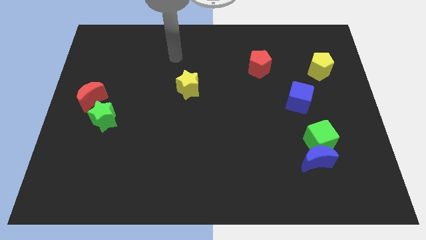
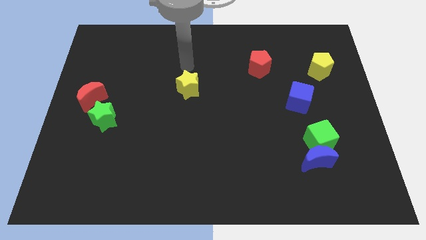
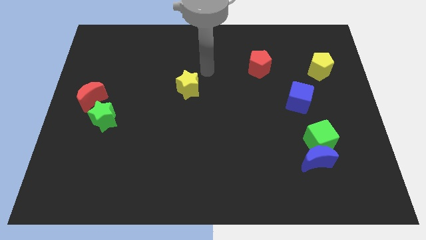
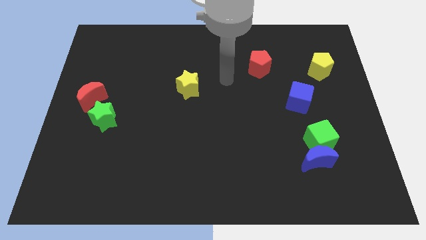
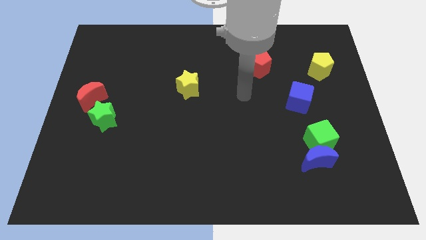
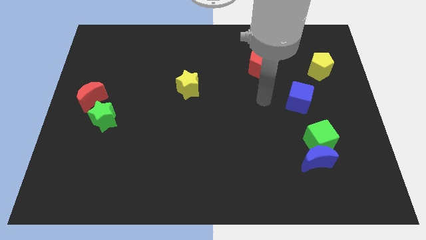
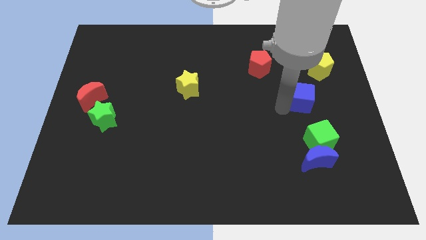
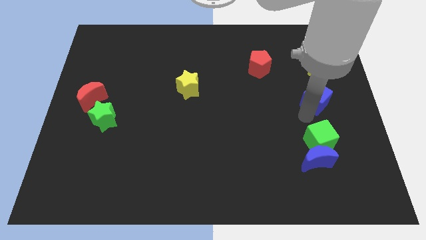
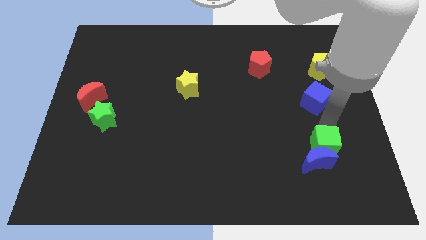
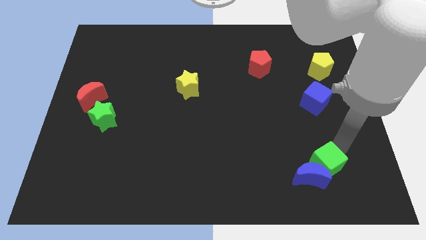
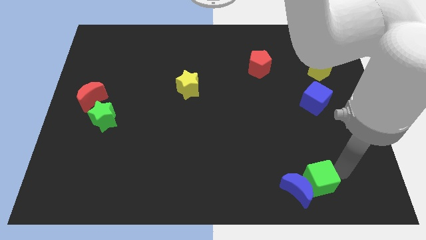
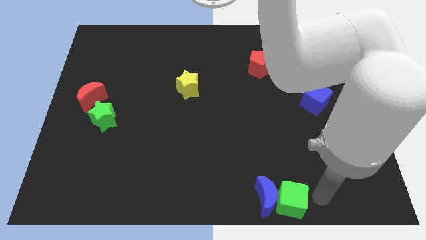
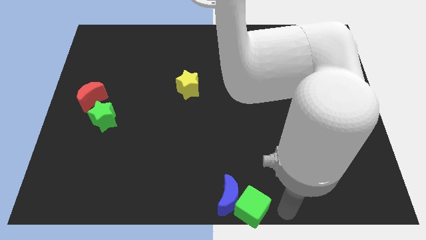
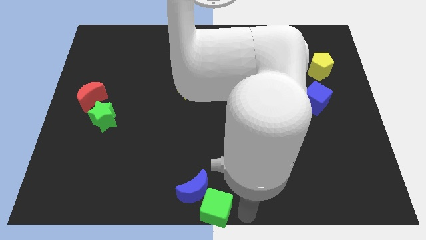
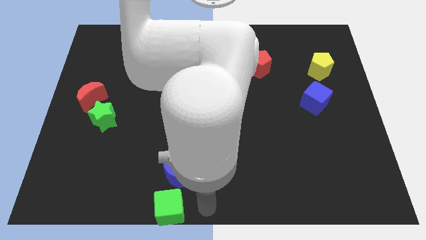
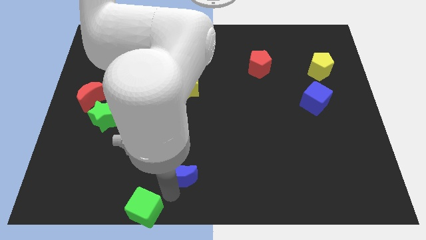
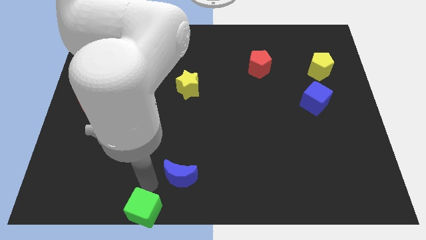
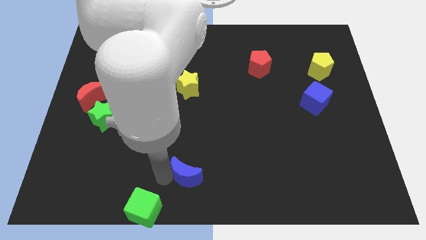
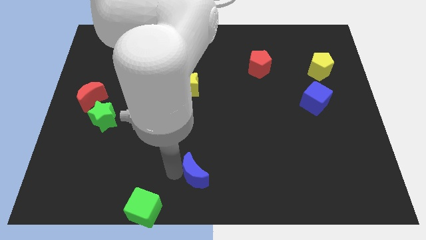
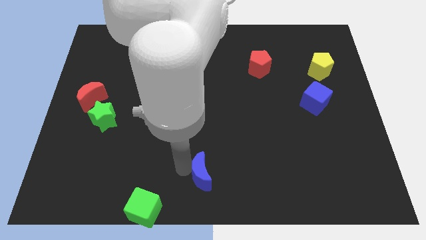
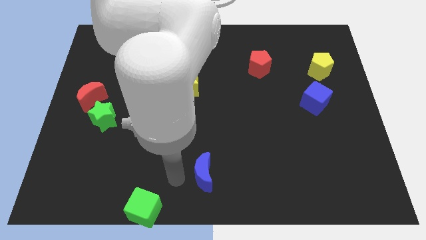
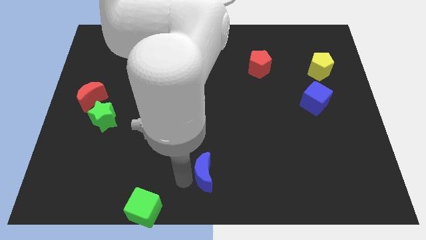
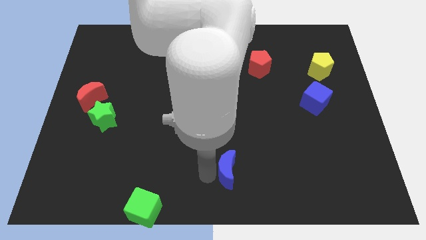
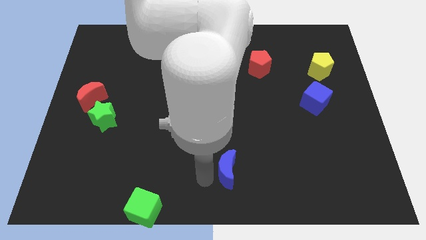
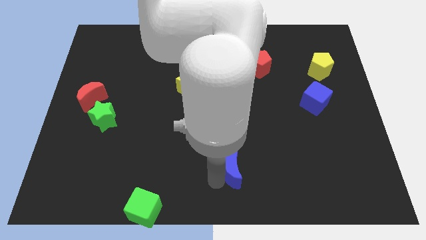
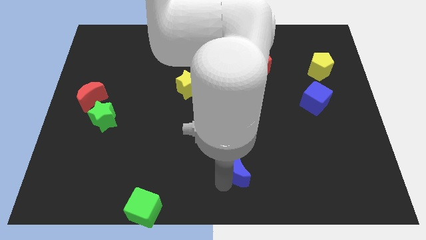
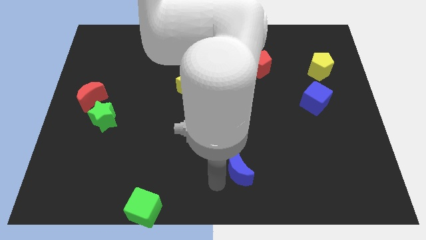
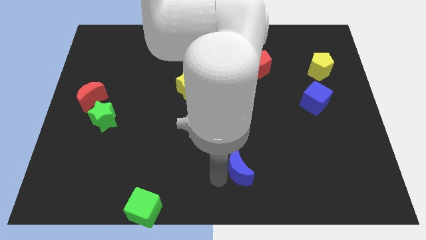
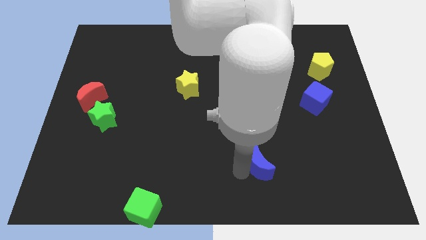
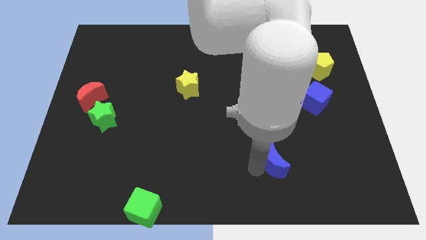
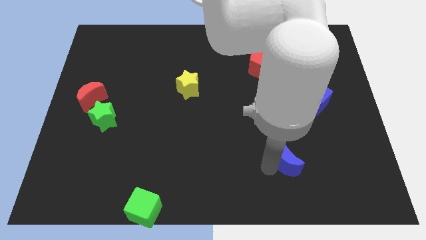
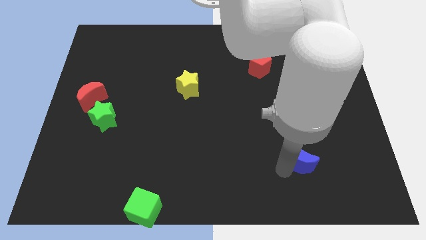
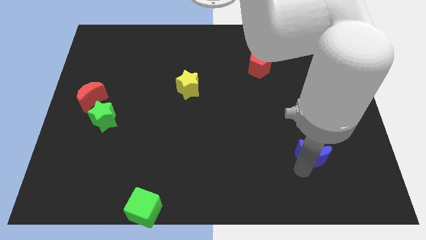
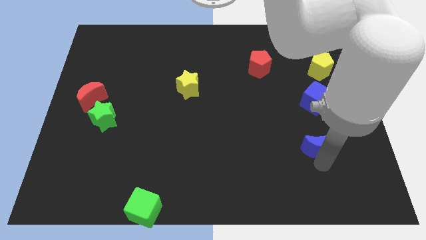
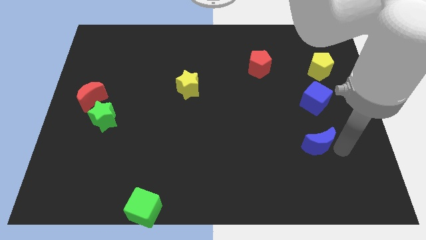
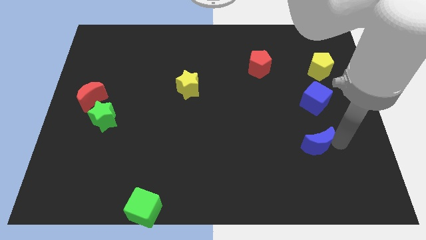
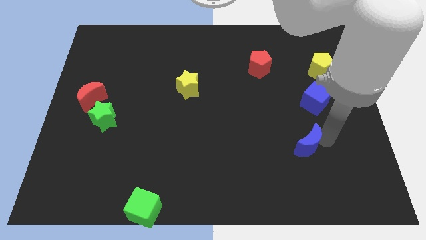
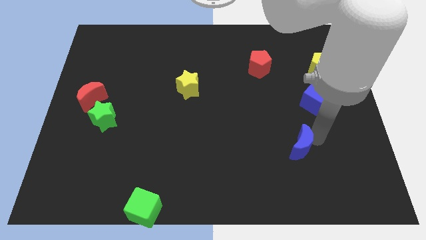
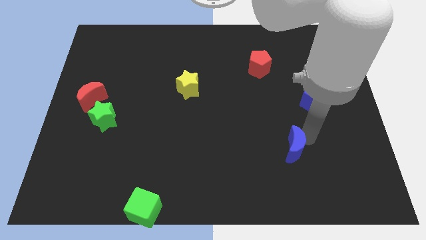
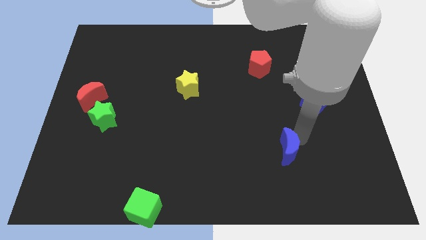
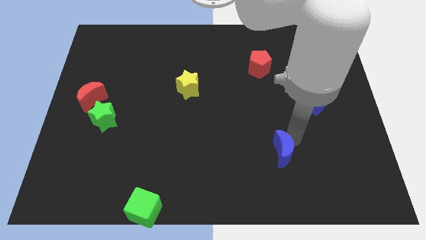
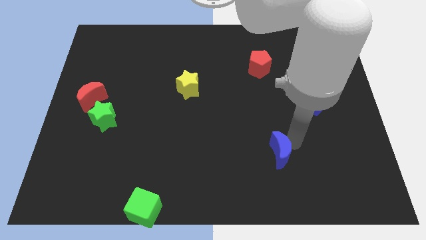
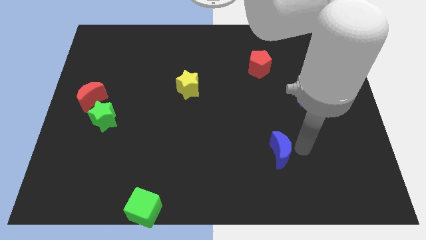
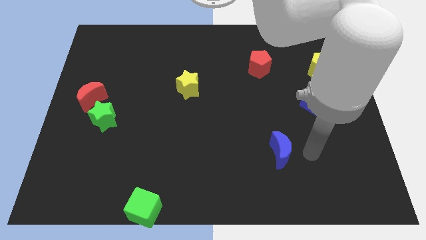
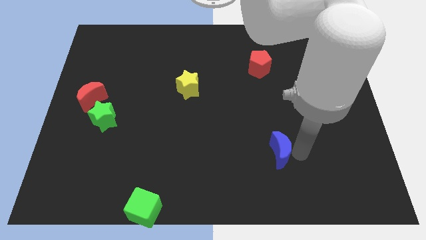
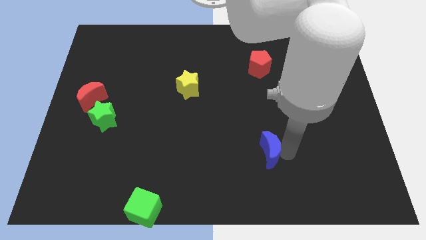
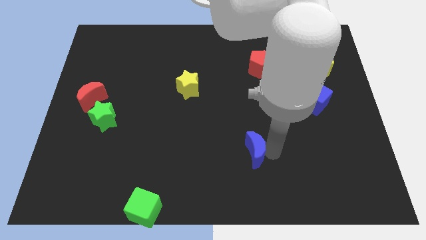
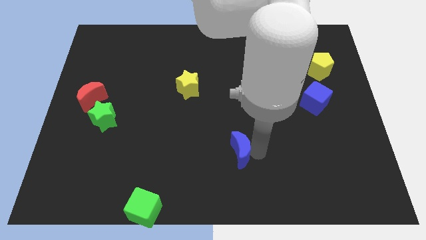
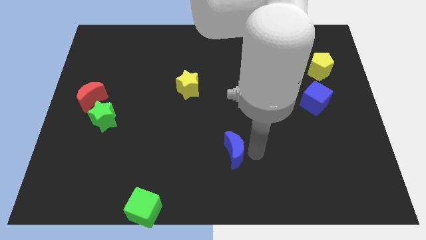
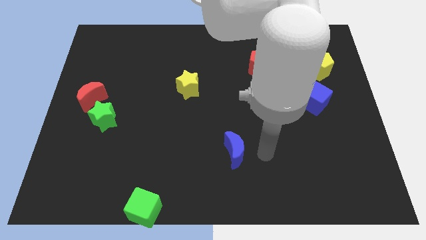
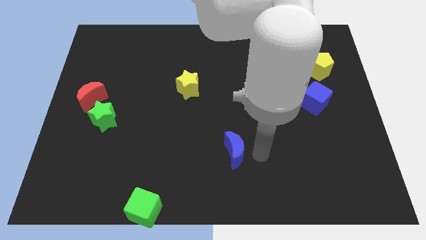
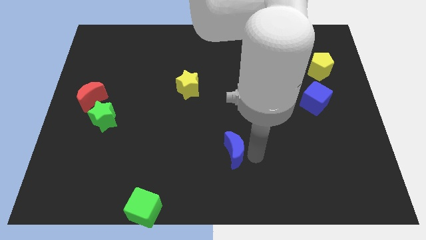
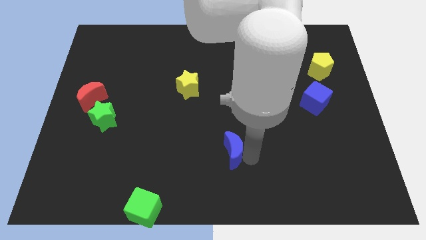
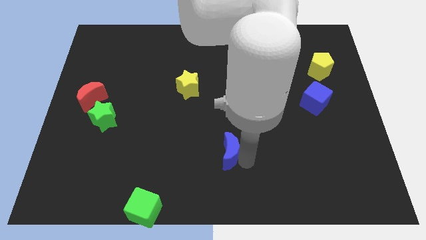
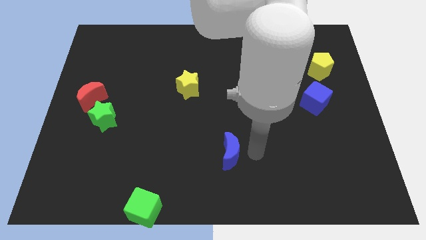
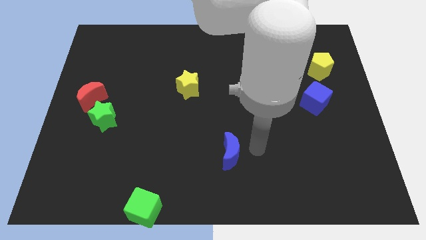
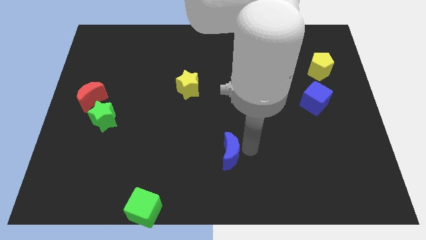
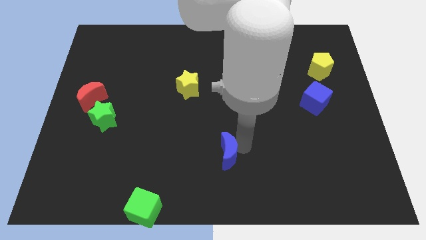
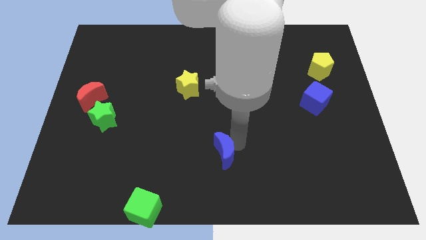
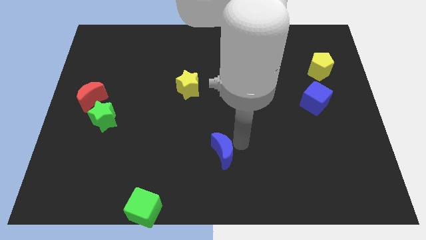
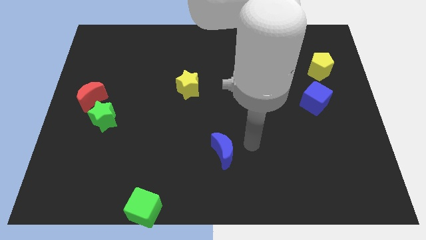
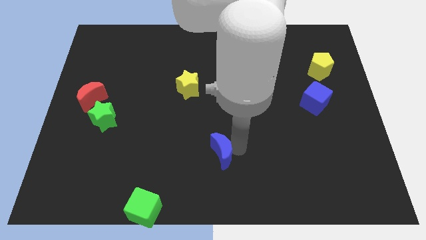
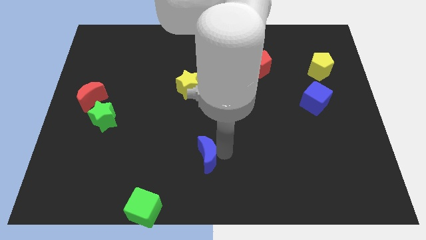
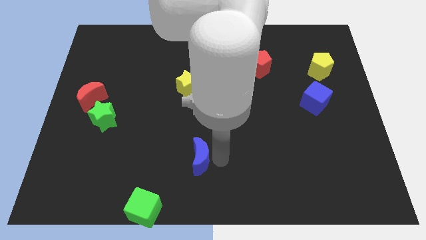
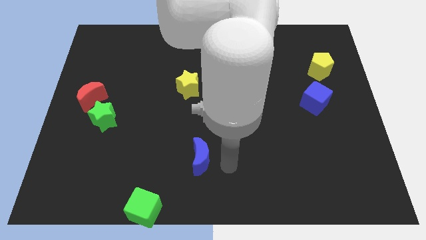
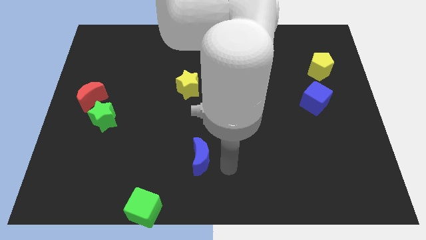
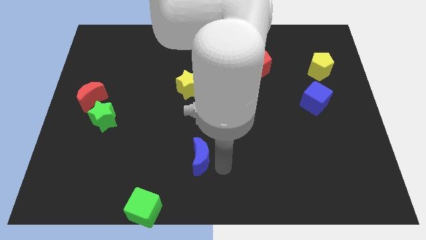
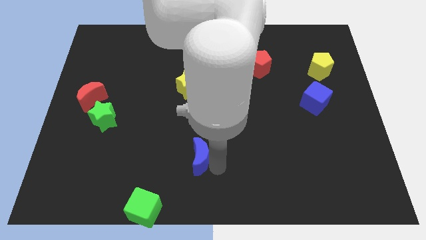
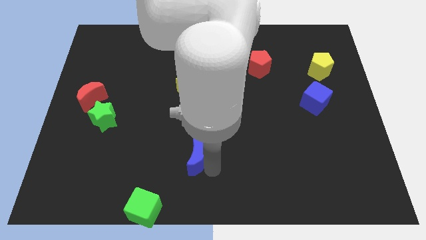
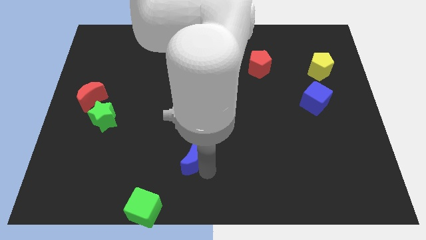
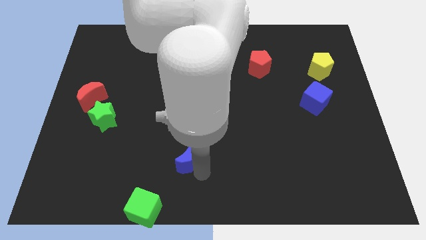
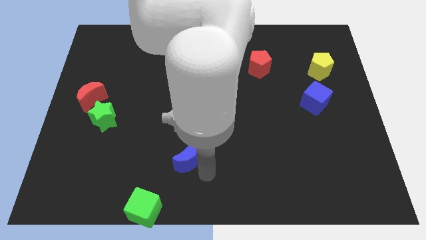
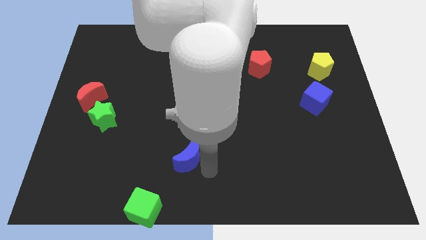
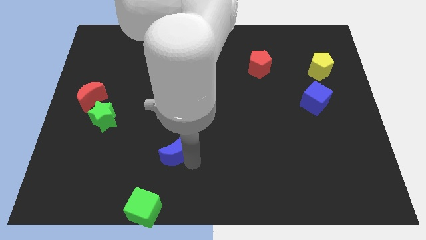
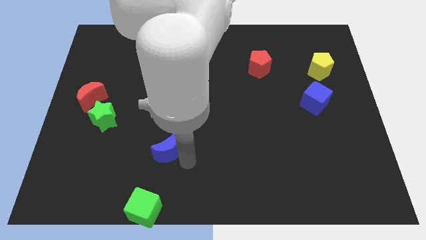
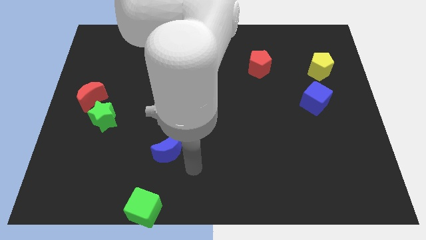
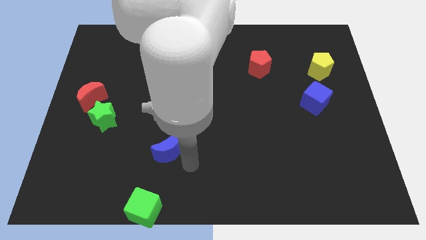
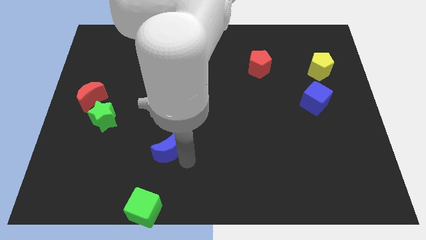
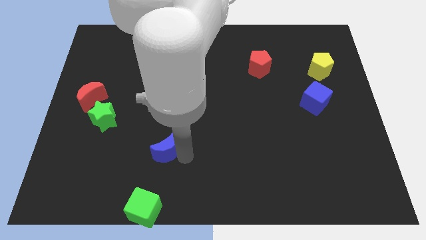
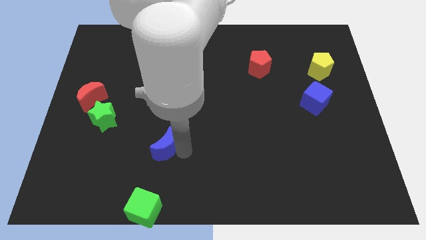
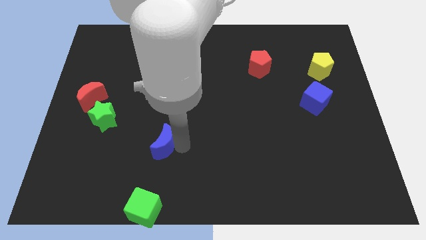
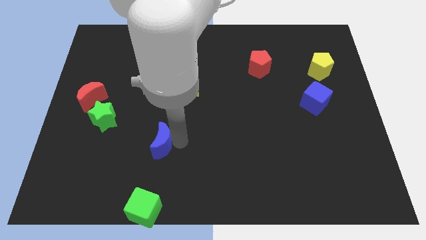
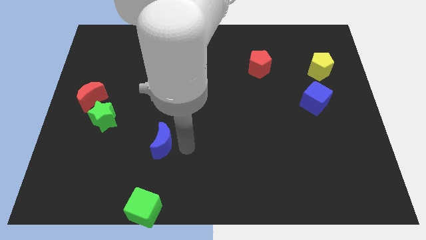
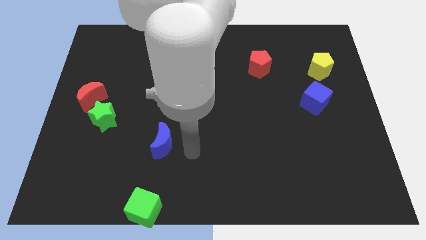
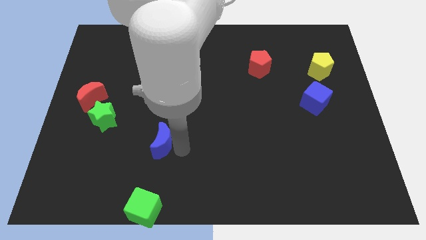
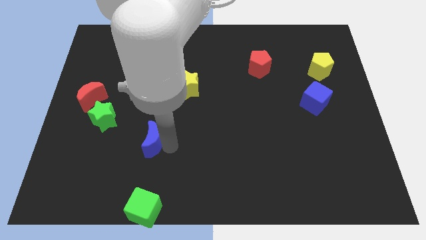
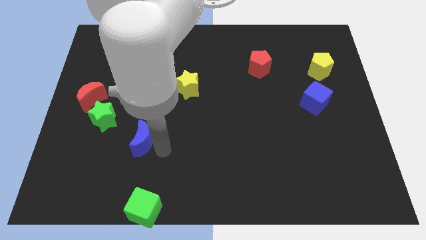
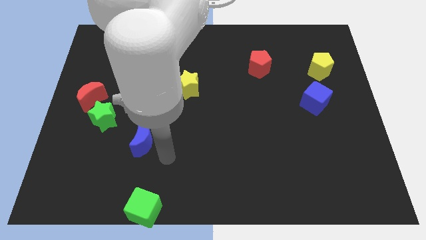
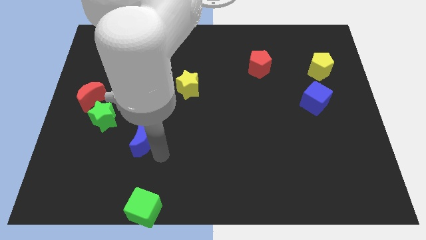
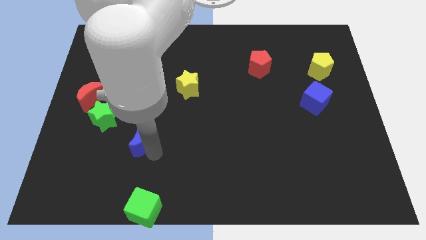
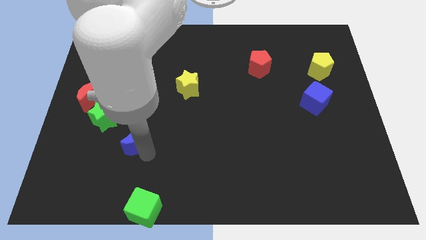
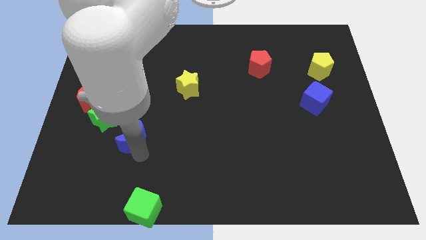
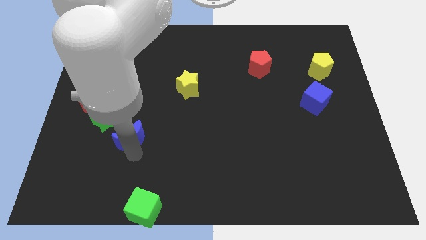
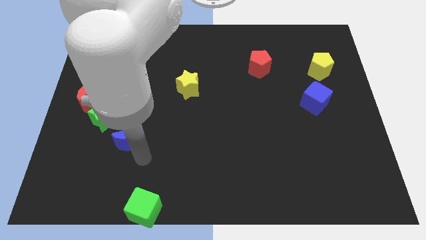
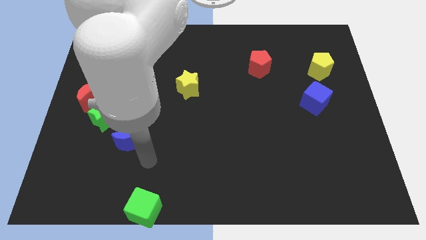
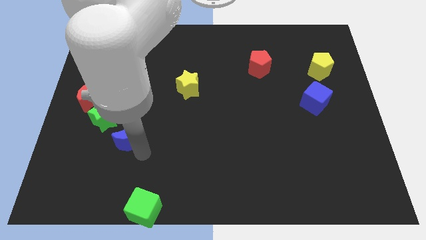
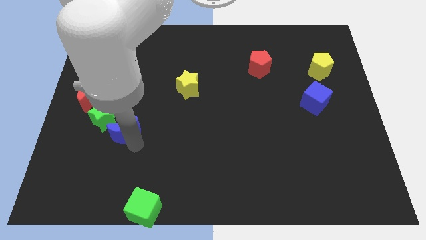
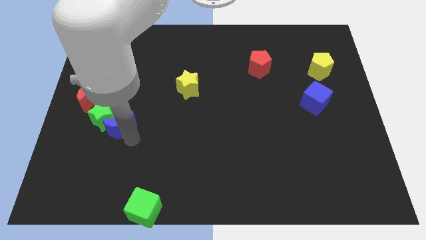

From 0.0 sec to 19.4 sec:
put the blue moon close to the green star
